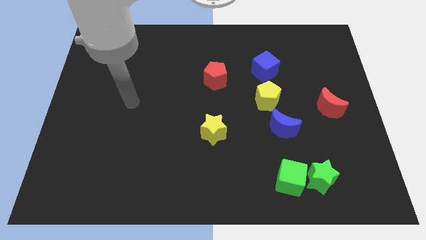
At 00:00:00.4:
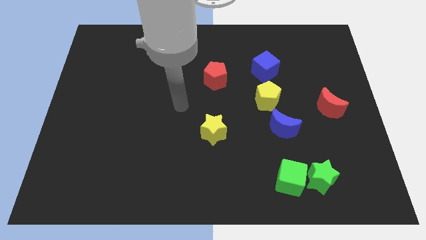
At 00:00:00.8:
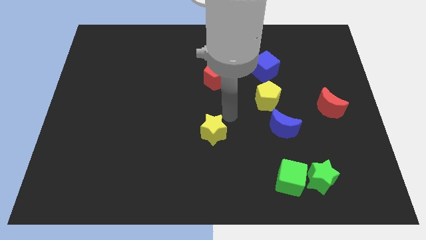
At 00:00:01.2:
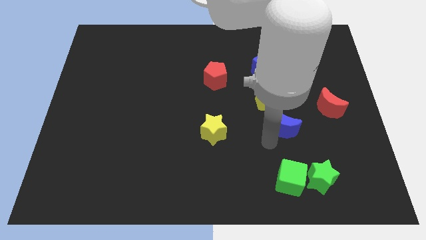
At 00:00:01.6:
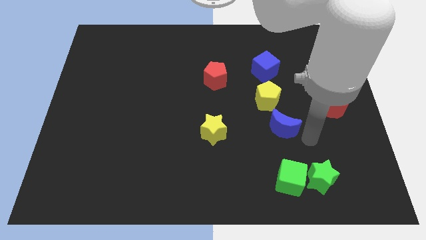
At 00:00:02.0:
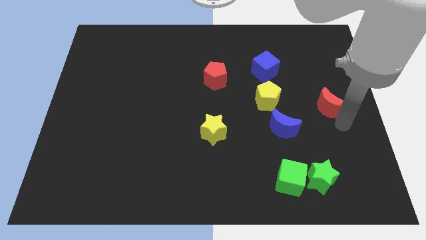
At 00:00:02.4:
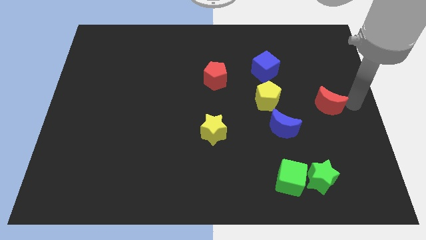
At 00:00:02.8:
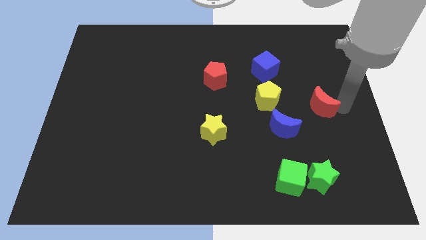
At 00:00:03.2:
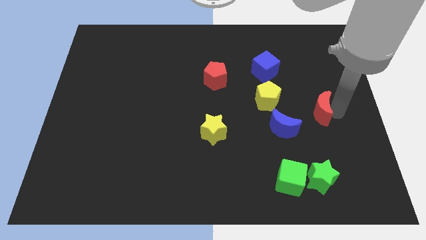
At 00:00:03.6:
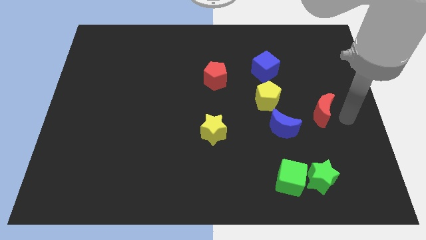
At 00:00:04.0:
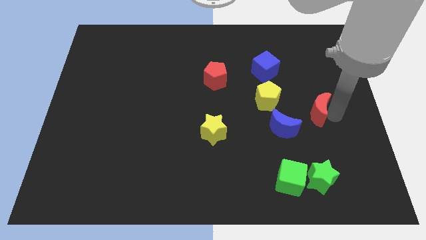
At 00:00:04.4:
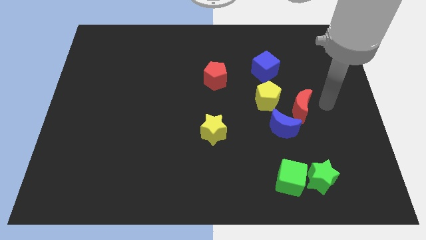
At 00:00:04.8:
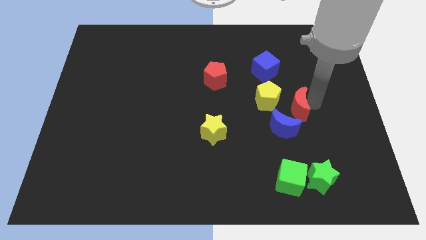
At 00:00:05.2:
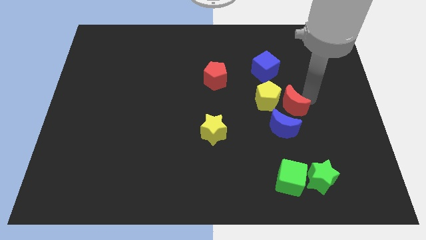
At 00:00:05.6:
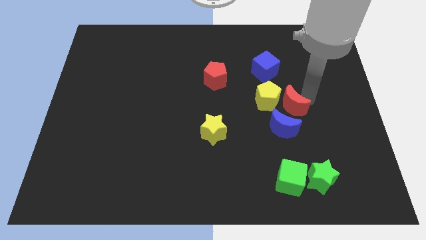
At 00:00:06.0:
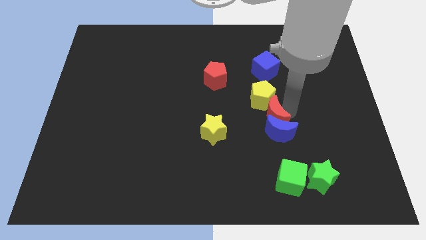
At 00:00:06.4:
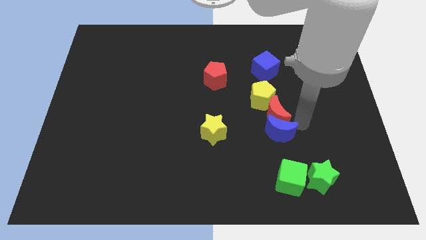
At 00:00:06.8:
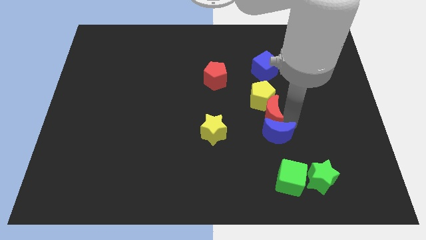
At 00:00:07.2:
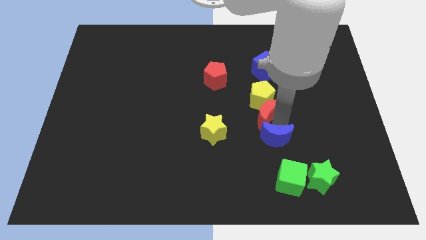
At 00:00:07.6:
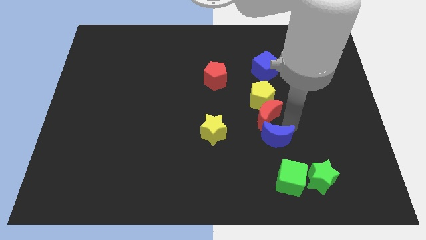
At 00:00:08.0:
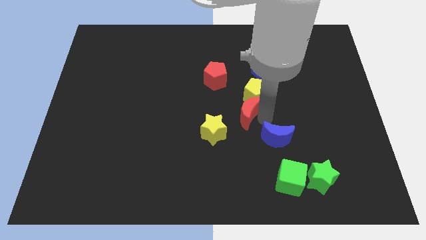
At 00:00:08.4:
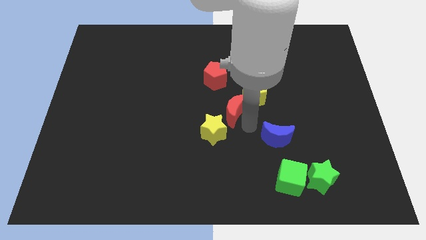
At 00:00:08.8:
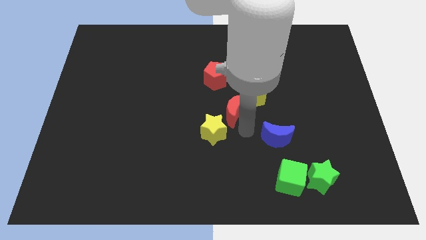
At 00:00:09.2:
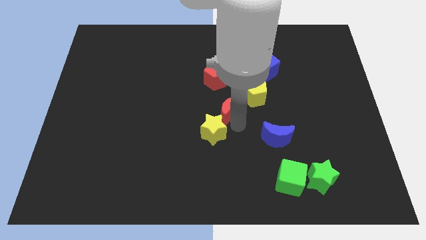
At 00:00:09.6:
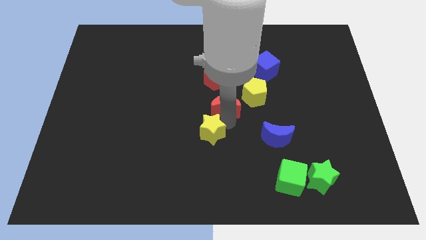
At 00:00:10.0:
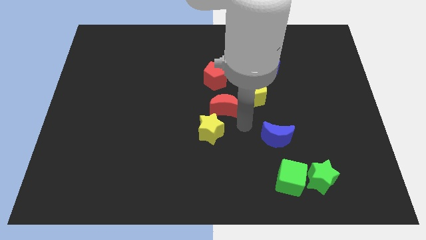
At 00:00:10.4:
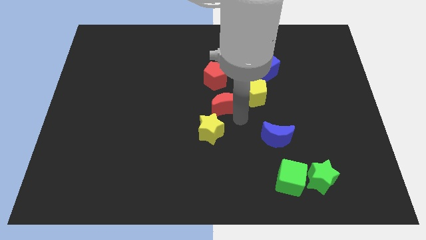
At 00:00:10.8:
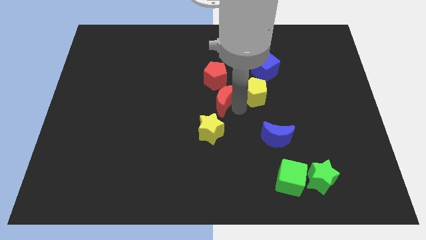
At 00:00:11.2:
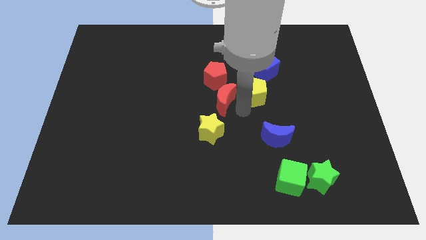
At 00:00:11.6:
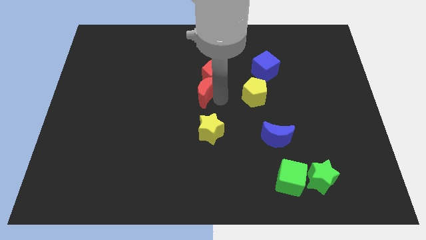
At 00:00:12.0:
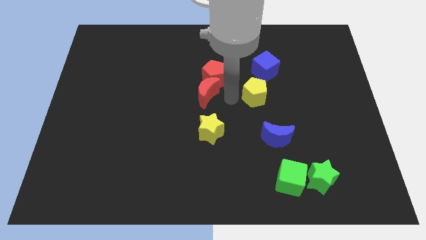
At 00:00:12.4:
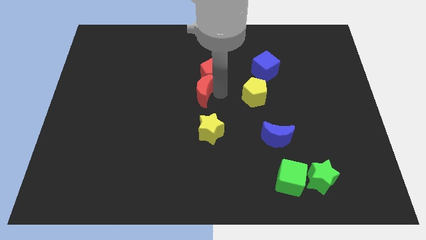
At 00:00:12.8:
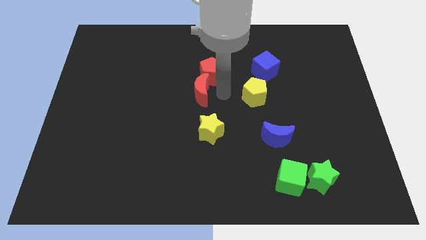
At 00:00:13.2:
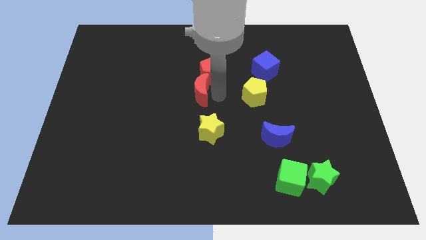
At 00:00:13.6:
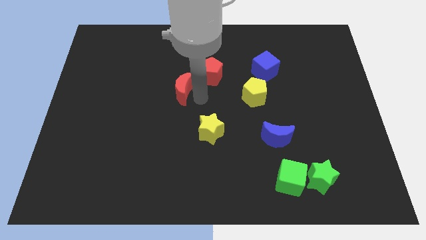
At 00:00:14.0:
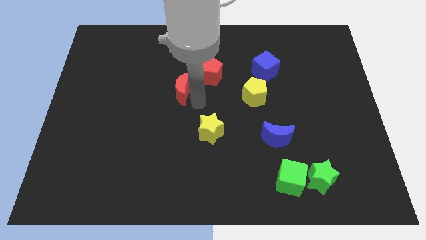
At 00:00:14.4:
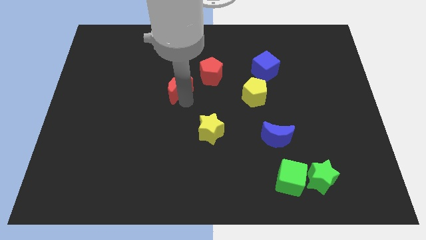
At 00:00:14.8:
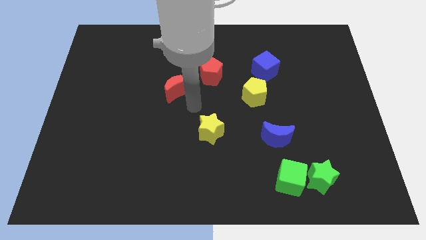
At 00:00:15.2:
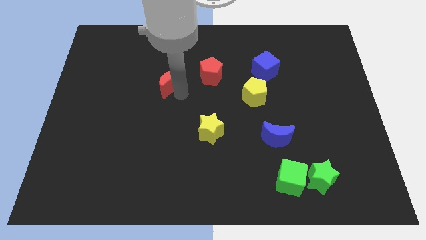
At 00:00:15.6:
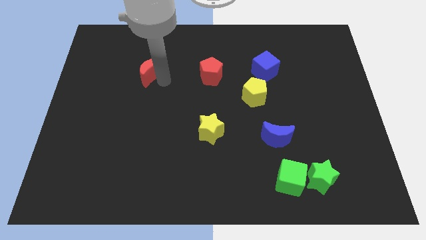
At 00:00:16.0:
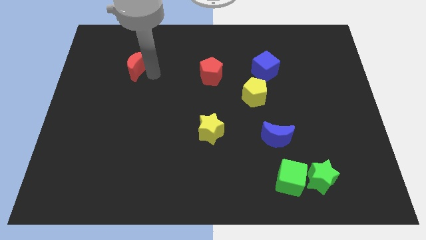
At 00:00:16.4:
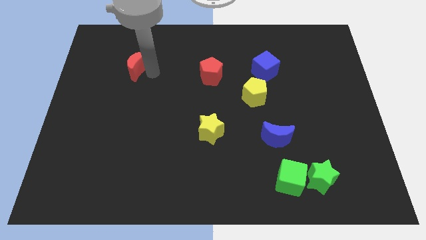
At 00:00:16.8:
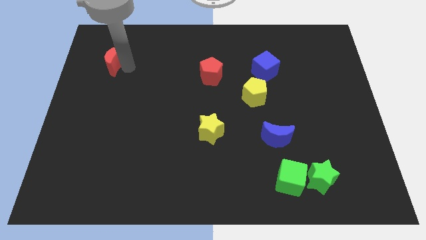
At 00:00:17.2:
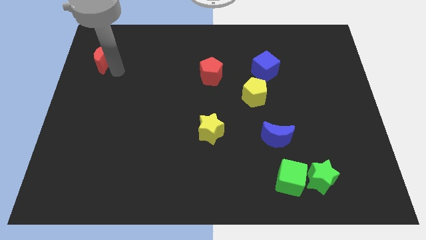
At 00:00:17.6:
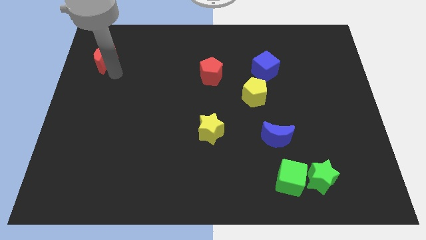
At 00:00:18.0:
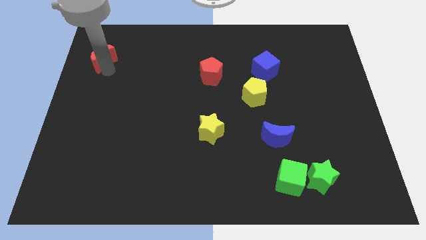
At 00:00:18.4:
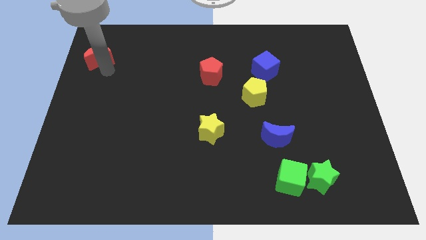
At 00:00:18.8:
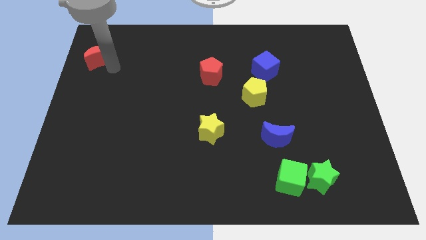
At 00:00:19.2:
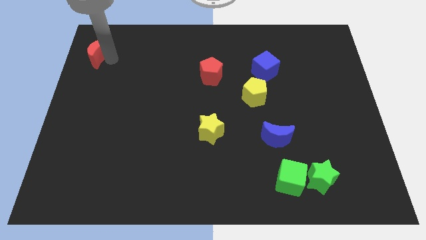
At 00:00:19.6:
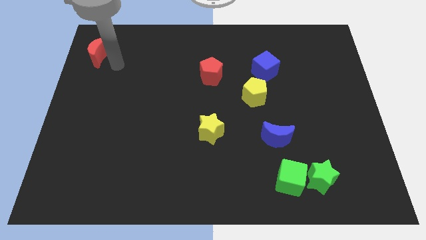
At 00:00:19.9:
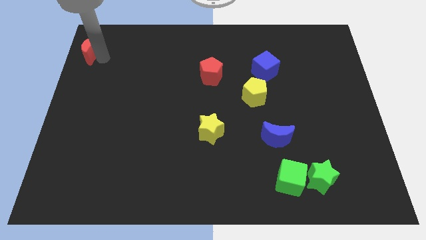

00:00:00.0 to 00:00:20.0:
put the red moon to the top left
